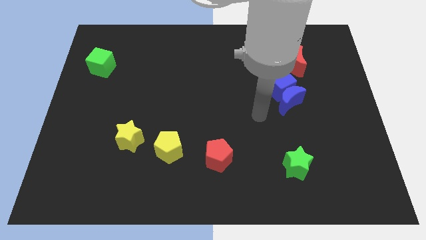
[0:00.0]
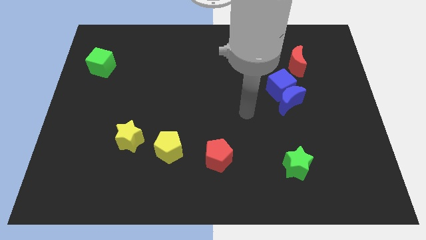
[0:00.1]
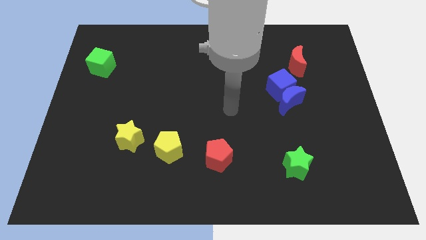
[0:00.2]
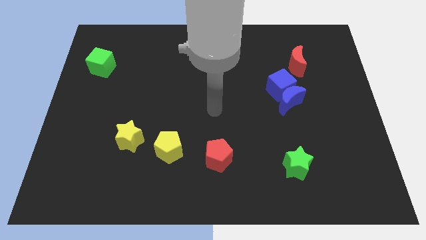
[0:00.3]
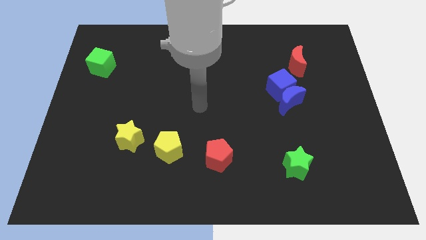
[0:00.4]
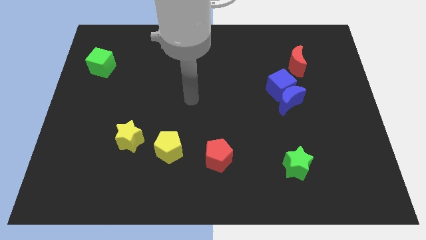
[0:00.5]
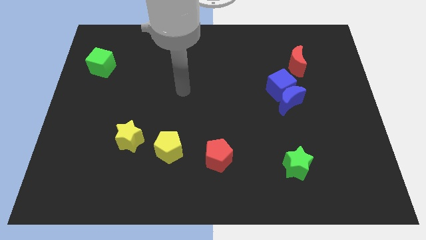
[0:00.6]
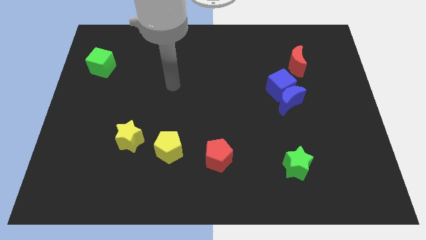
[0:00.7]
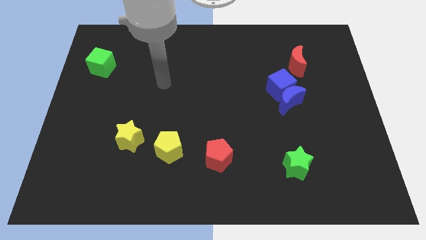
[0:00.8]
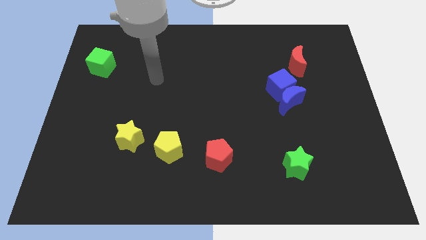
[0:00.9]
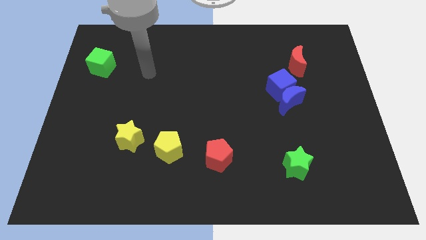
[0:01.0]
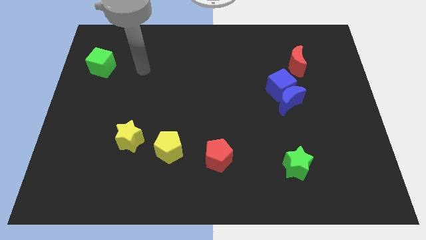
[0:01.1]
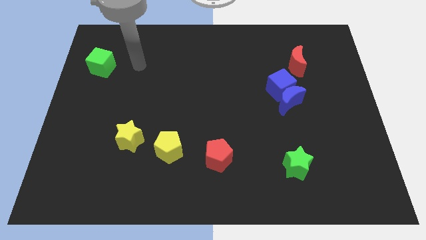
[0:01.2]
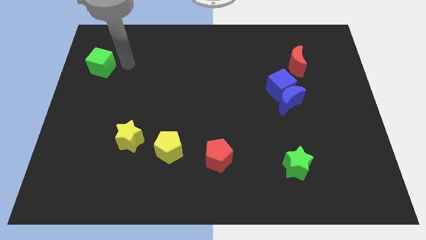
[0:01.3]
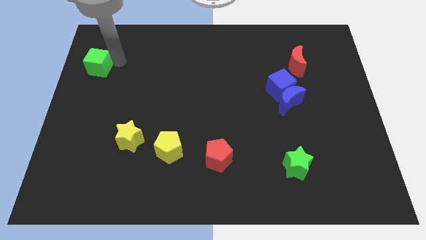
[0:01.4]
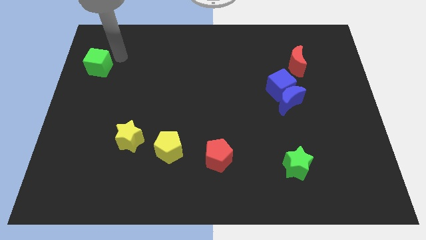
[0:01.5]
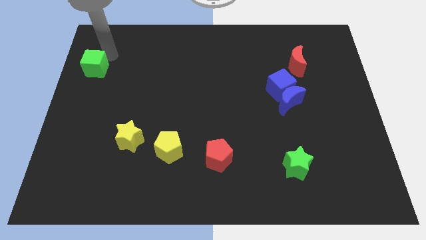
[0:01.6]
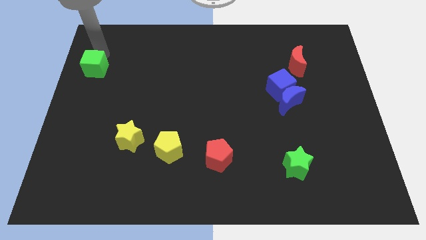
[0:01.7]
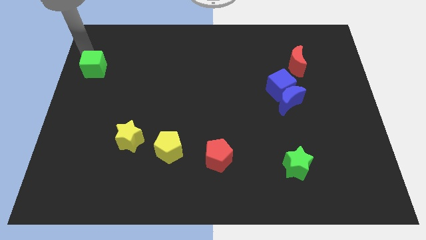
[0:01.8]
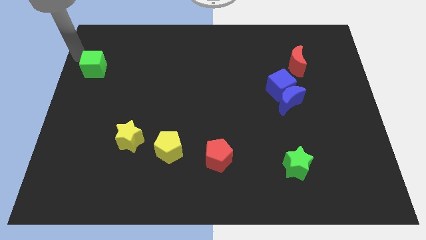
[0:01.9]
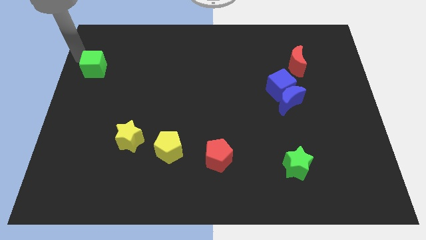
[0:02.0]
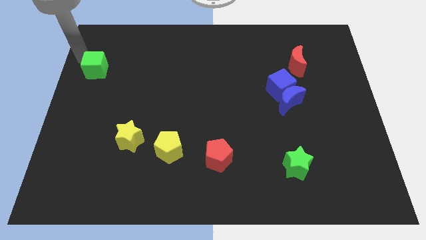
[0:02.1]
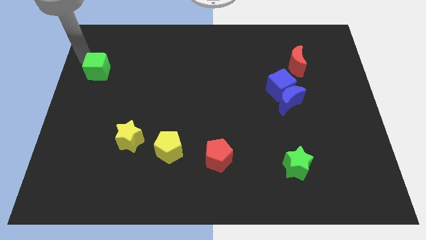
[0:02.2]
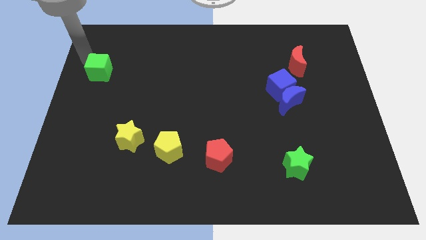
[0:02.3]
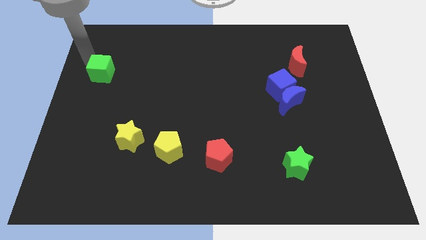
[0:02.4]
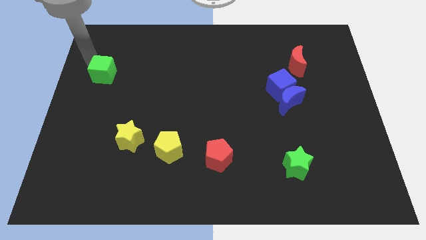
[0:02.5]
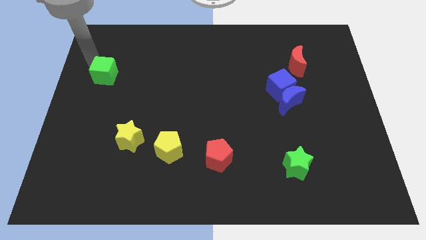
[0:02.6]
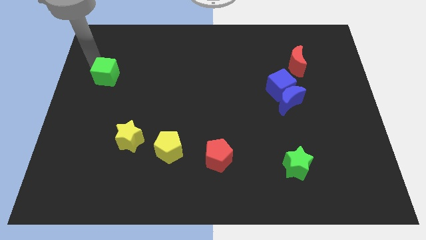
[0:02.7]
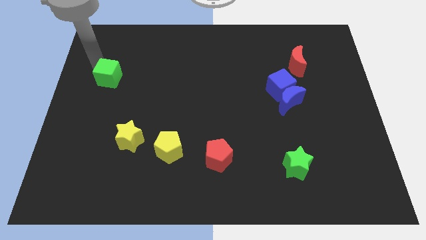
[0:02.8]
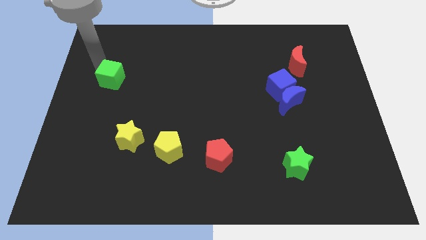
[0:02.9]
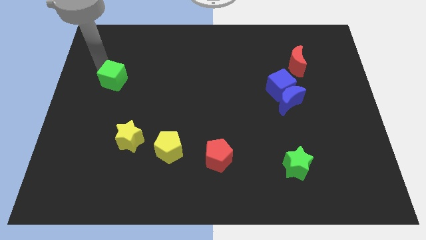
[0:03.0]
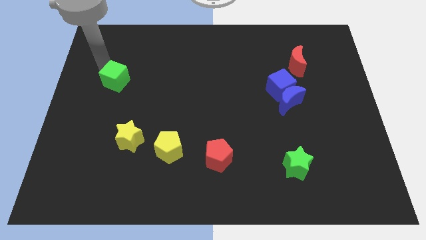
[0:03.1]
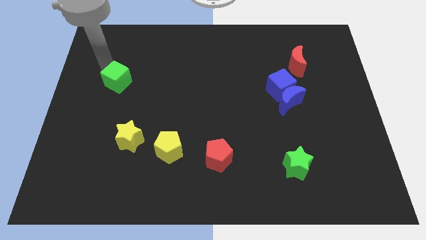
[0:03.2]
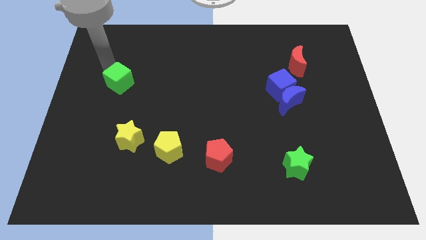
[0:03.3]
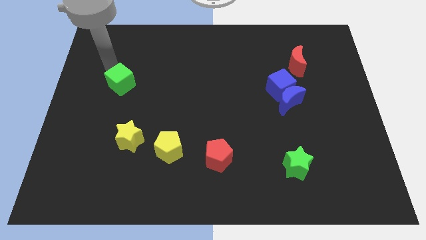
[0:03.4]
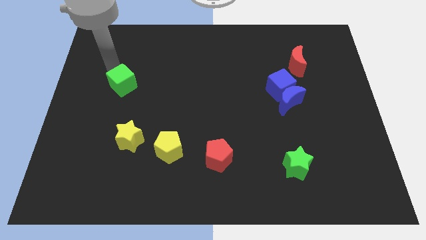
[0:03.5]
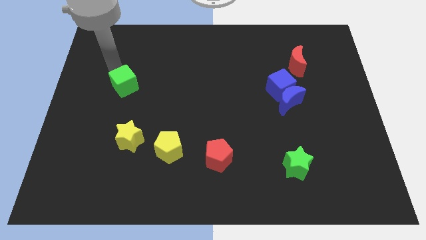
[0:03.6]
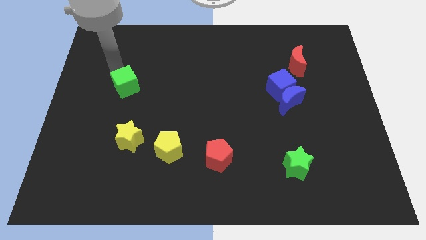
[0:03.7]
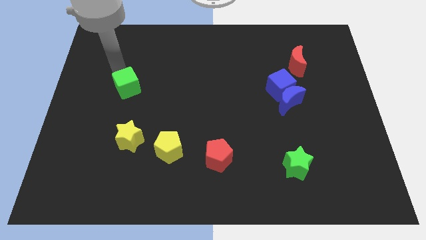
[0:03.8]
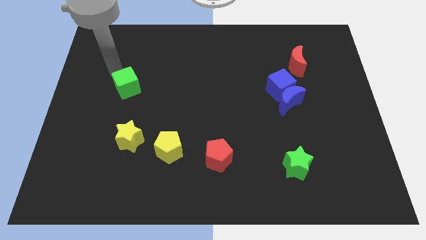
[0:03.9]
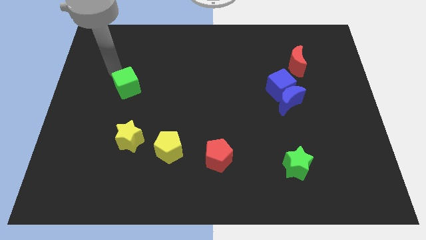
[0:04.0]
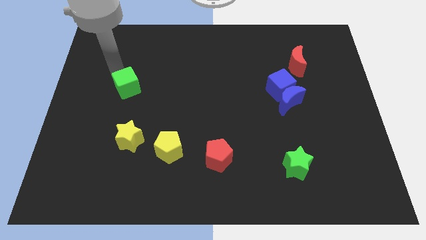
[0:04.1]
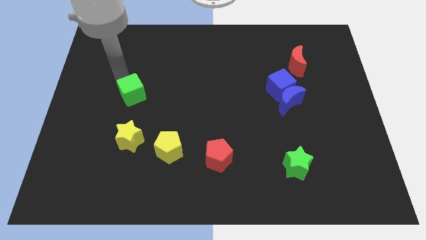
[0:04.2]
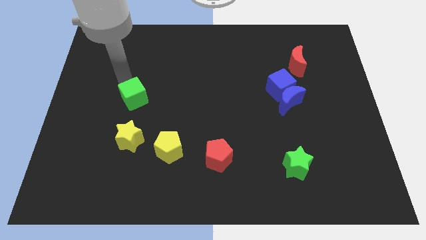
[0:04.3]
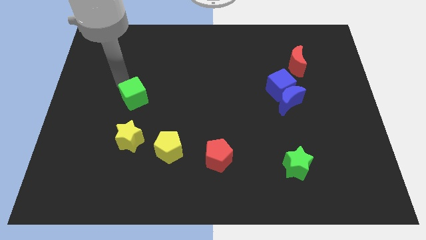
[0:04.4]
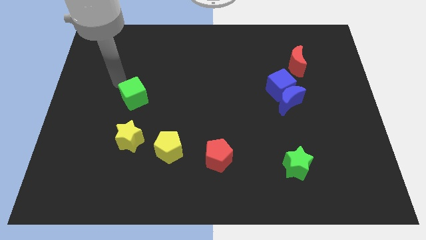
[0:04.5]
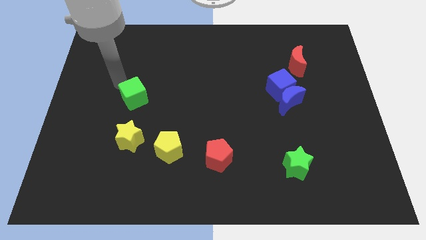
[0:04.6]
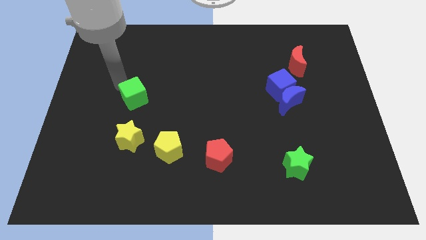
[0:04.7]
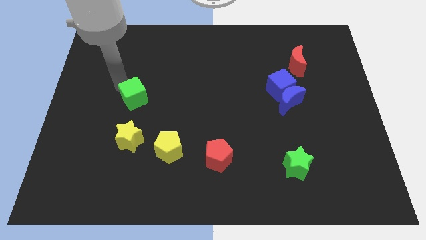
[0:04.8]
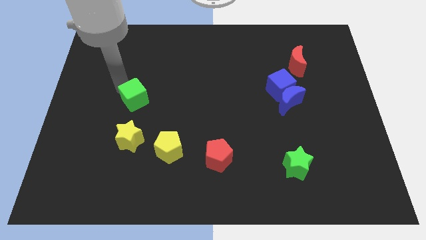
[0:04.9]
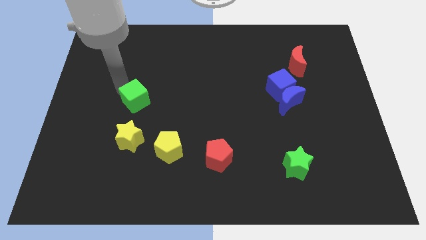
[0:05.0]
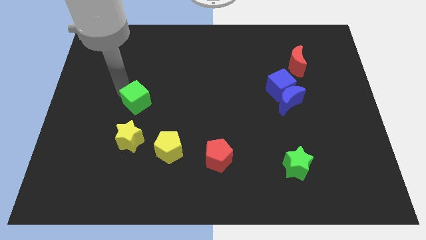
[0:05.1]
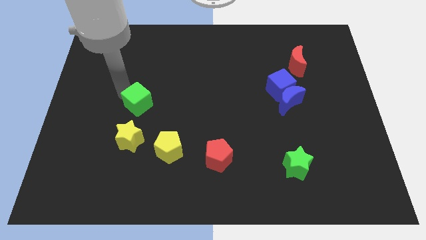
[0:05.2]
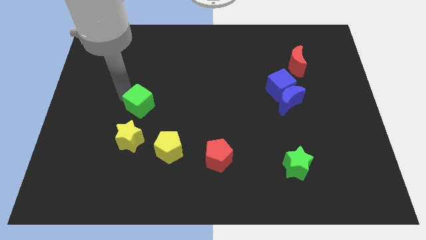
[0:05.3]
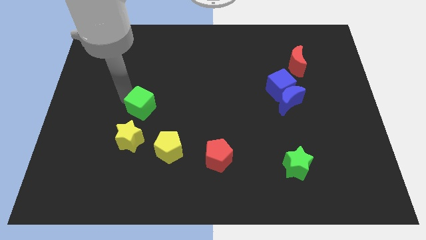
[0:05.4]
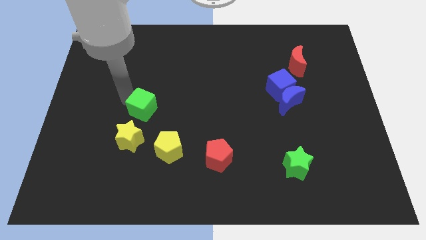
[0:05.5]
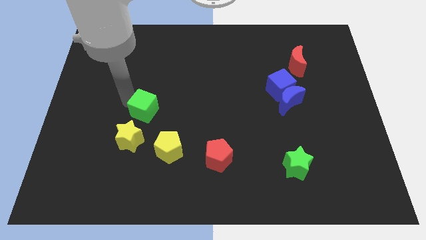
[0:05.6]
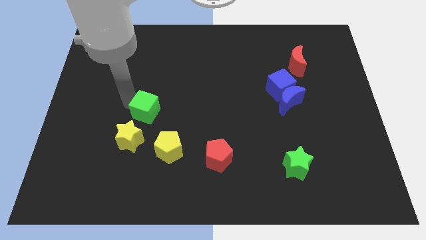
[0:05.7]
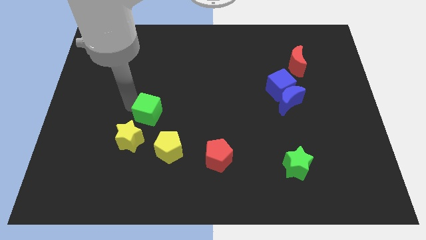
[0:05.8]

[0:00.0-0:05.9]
slide the green cube down and then right

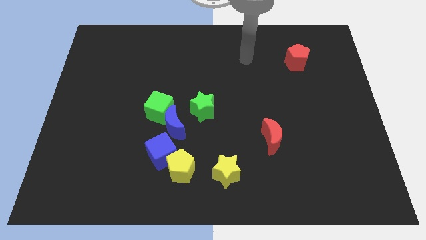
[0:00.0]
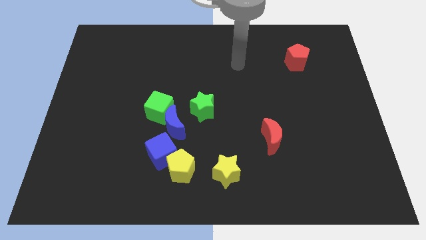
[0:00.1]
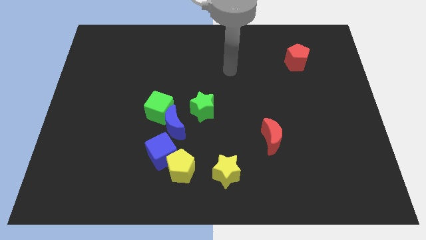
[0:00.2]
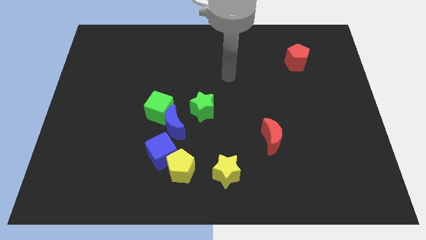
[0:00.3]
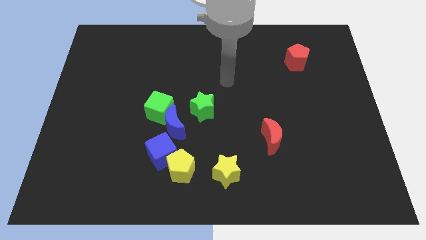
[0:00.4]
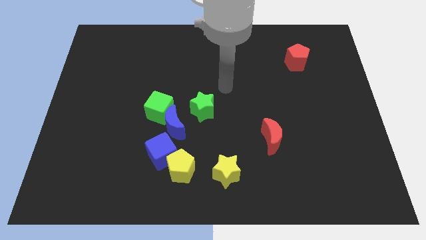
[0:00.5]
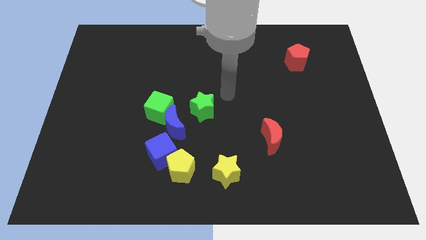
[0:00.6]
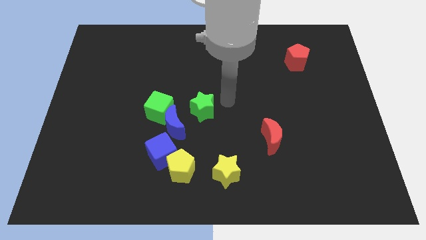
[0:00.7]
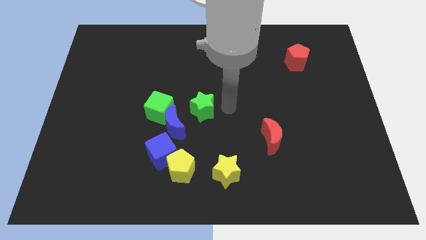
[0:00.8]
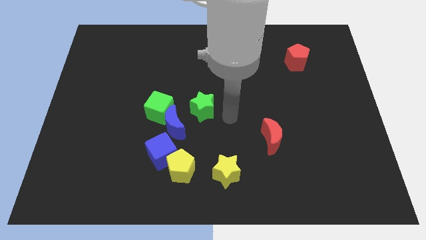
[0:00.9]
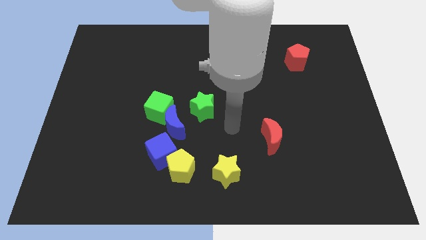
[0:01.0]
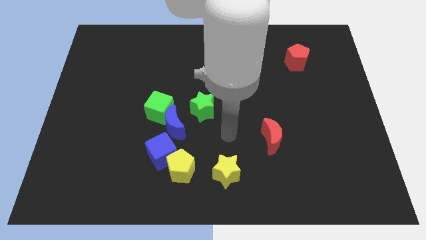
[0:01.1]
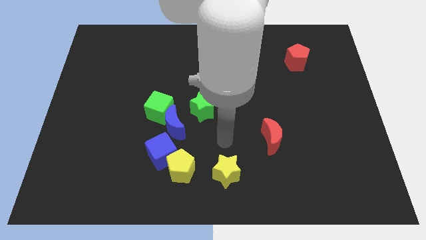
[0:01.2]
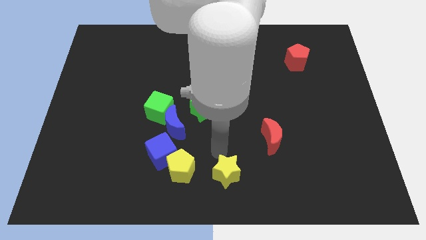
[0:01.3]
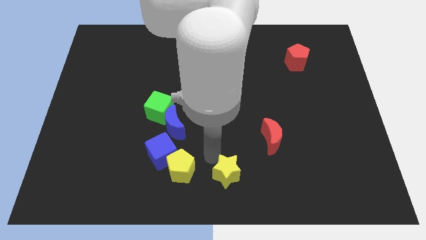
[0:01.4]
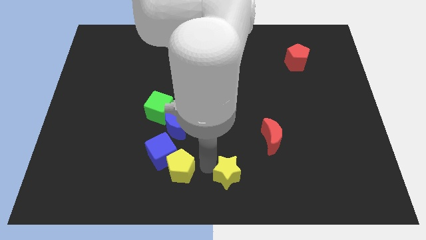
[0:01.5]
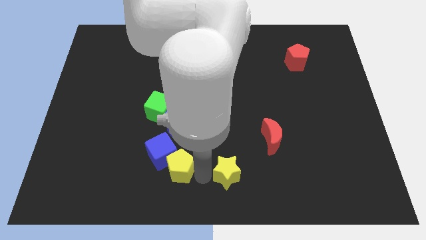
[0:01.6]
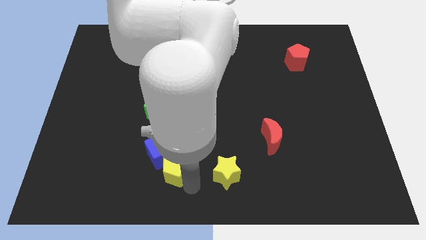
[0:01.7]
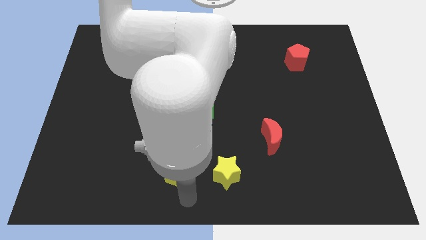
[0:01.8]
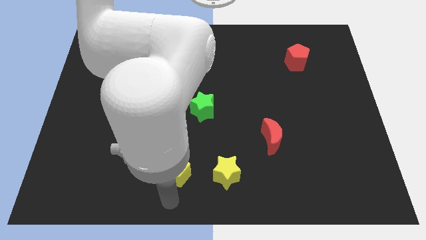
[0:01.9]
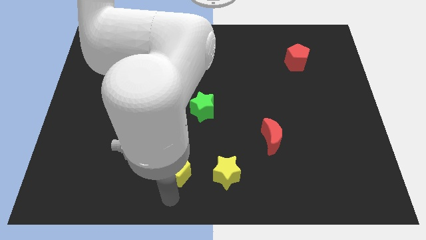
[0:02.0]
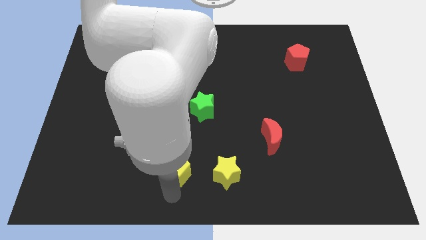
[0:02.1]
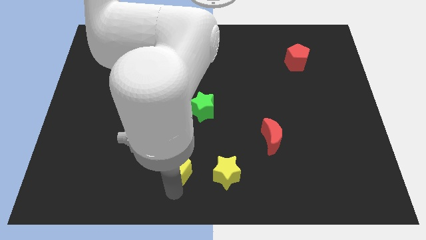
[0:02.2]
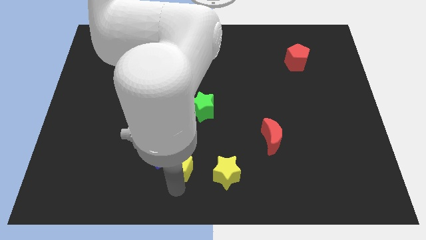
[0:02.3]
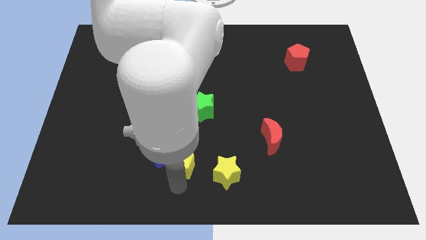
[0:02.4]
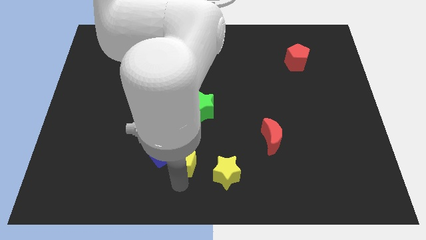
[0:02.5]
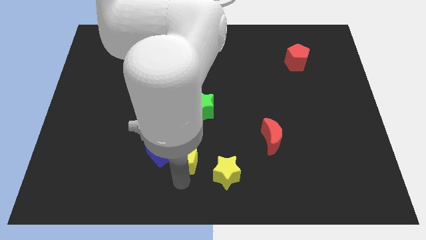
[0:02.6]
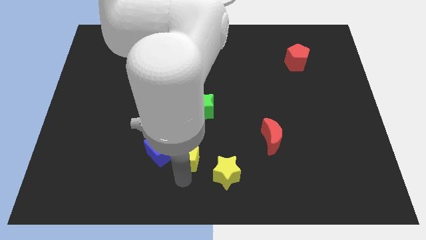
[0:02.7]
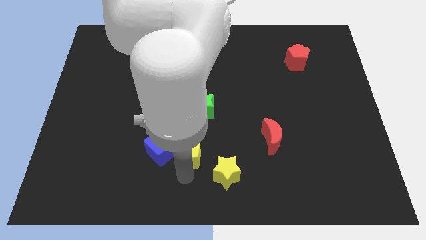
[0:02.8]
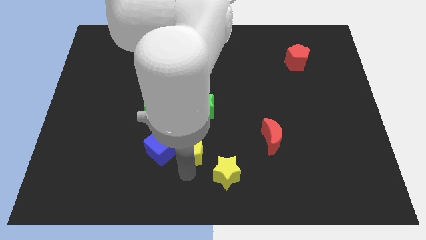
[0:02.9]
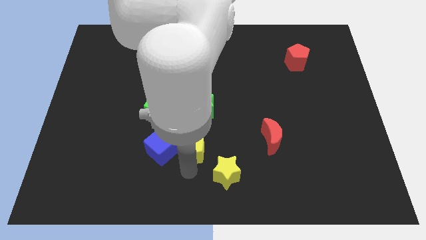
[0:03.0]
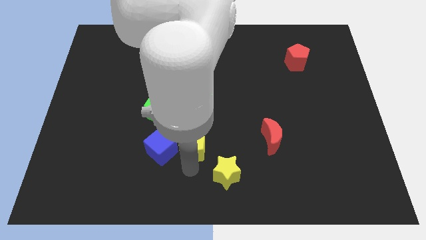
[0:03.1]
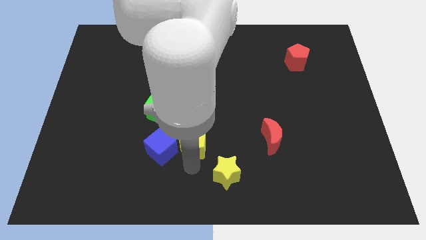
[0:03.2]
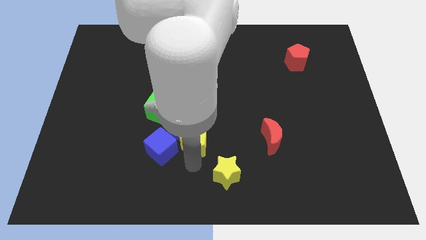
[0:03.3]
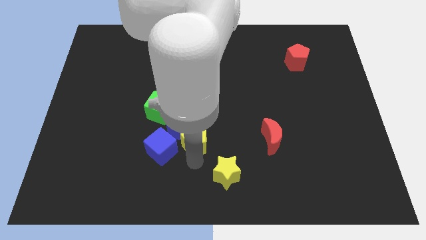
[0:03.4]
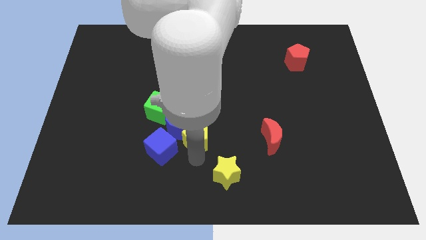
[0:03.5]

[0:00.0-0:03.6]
move the yellow pentagon up somewhat
